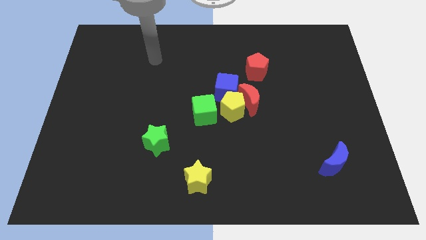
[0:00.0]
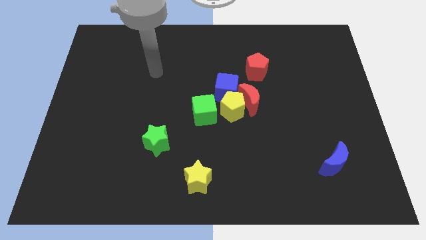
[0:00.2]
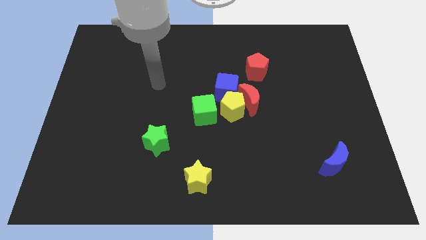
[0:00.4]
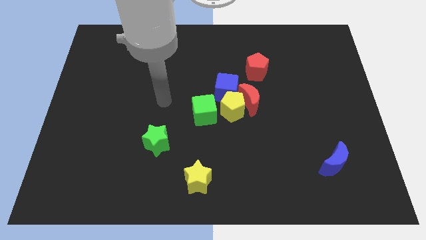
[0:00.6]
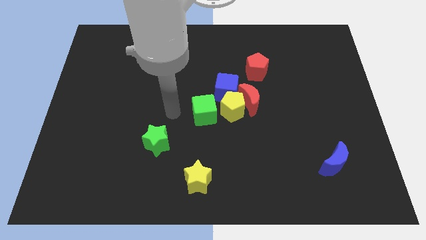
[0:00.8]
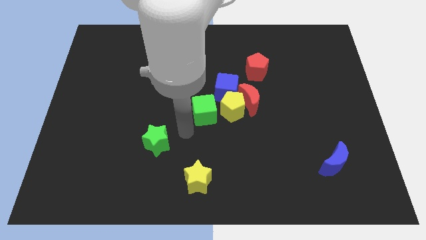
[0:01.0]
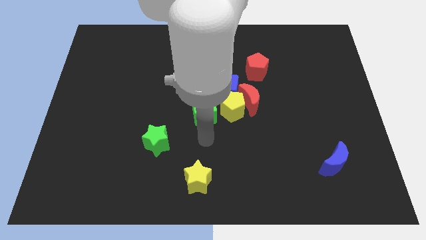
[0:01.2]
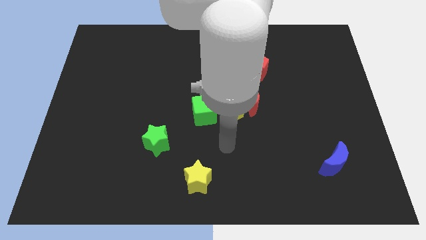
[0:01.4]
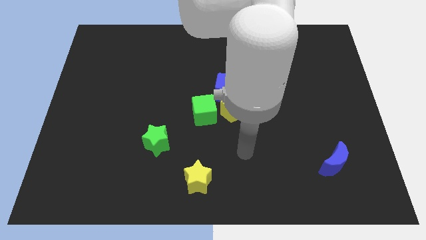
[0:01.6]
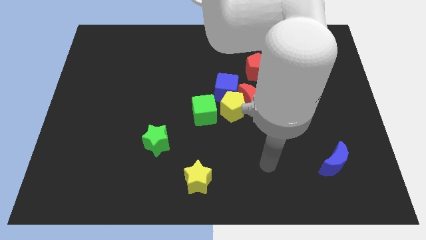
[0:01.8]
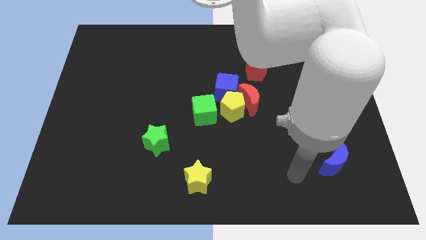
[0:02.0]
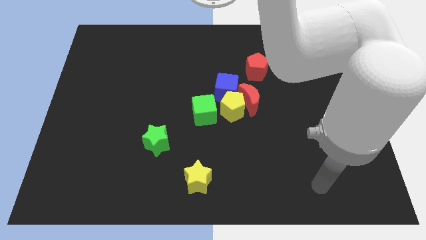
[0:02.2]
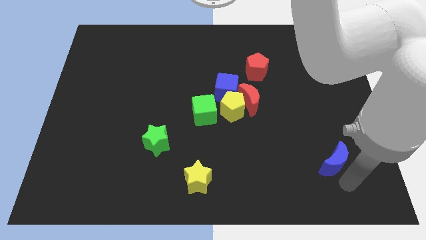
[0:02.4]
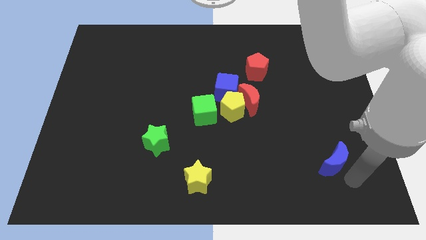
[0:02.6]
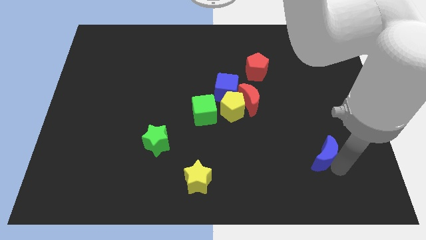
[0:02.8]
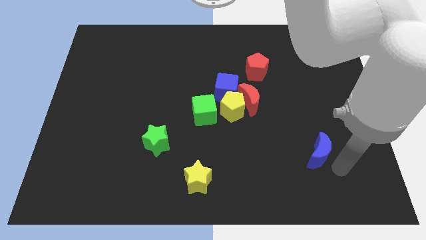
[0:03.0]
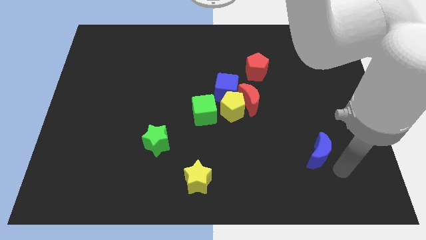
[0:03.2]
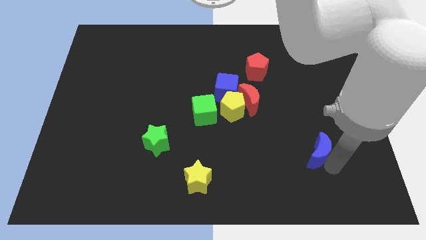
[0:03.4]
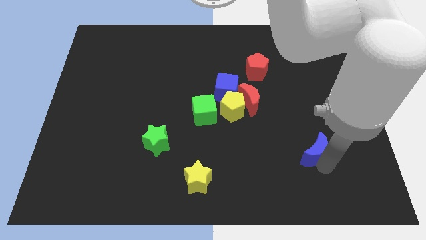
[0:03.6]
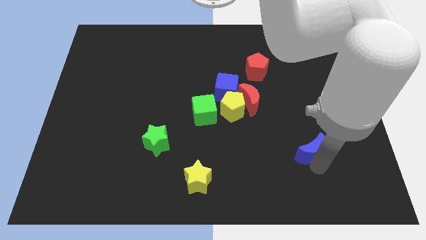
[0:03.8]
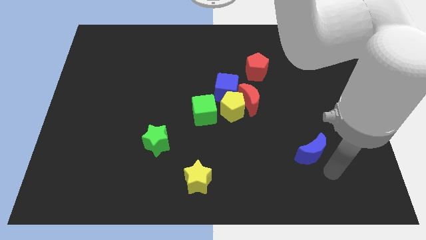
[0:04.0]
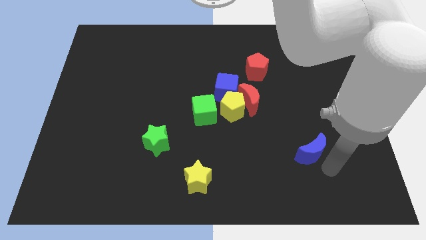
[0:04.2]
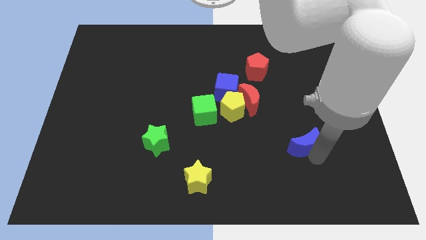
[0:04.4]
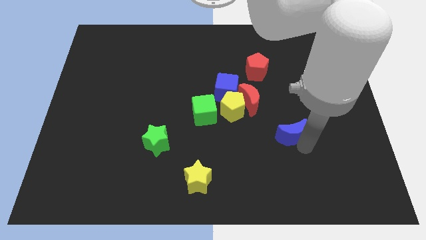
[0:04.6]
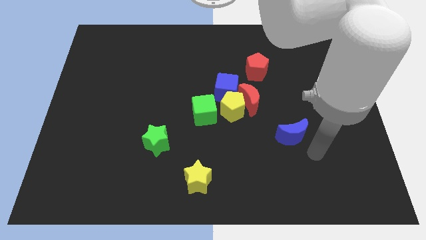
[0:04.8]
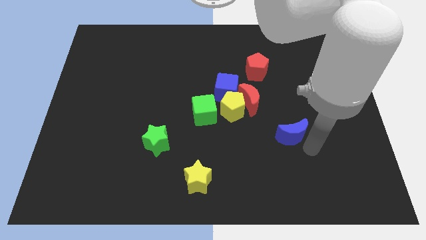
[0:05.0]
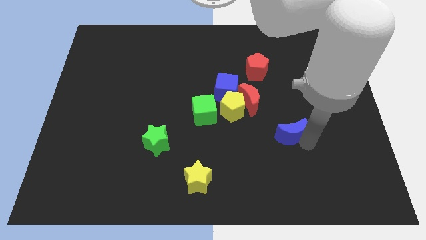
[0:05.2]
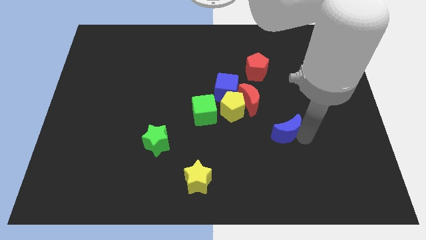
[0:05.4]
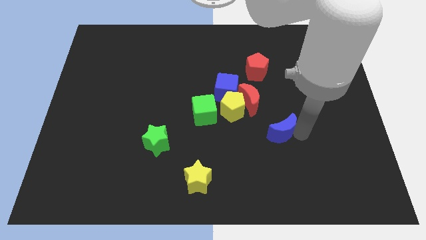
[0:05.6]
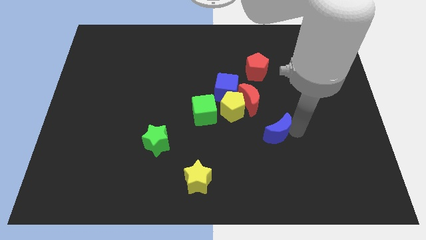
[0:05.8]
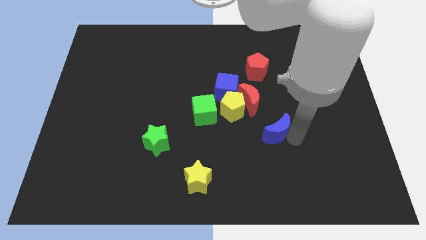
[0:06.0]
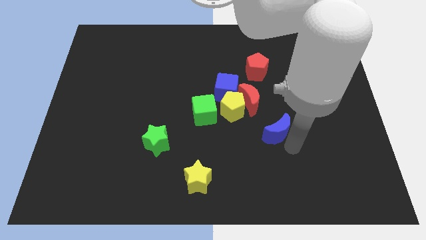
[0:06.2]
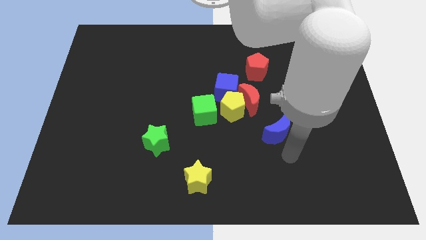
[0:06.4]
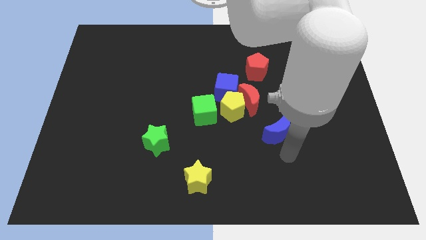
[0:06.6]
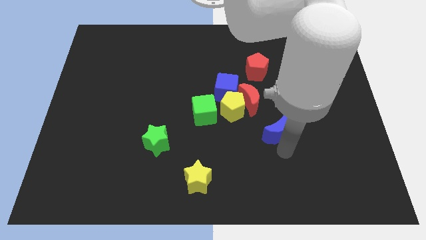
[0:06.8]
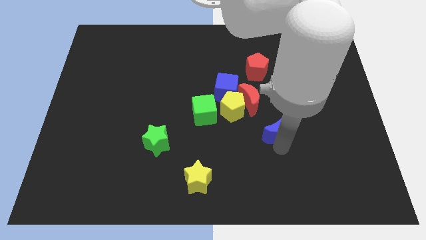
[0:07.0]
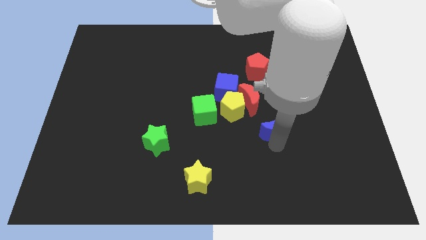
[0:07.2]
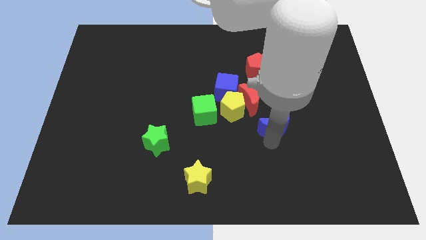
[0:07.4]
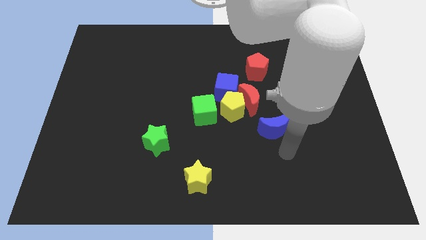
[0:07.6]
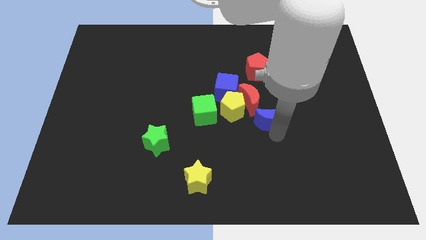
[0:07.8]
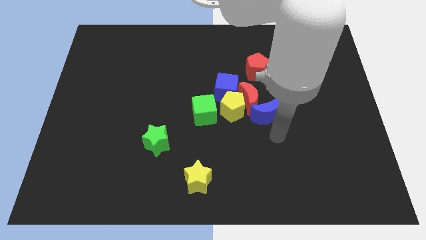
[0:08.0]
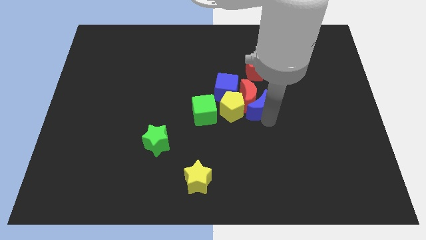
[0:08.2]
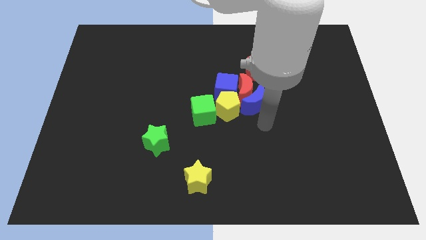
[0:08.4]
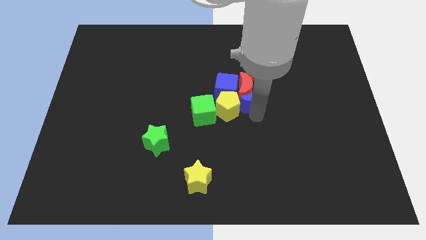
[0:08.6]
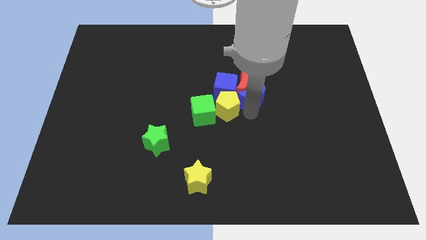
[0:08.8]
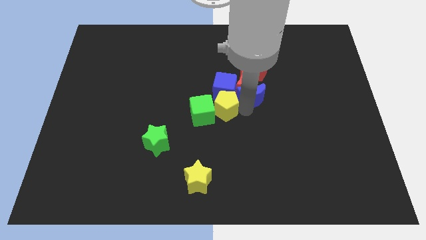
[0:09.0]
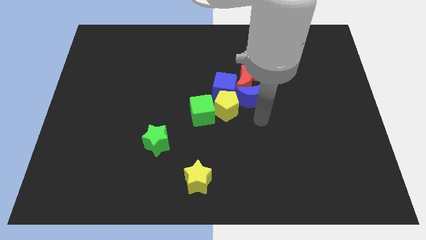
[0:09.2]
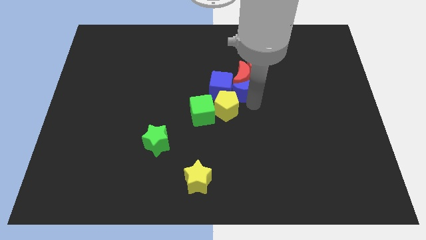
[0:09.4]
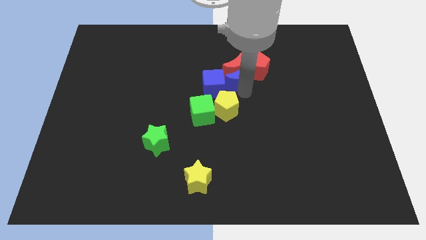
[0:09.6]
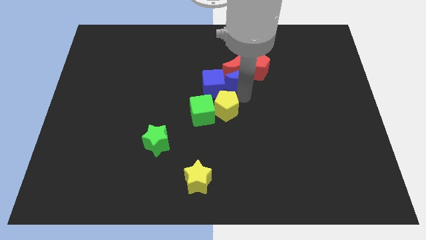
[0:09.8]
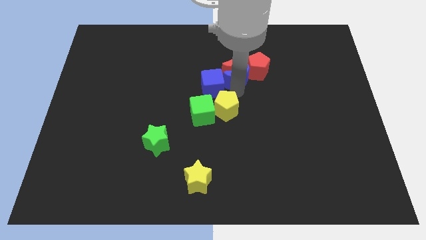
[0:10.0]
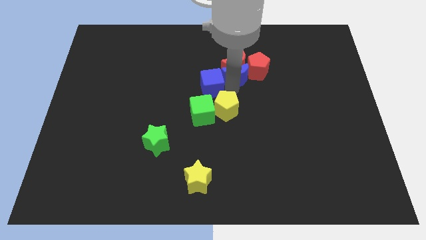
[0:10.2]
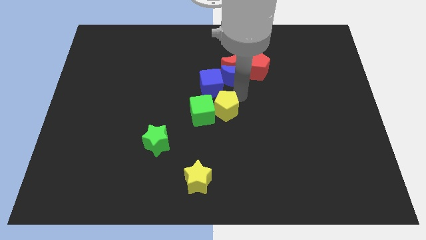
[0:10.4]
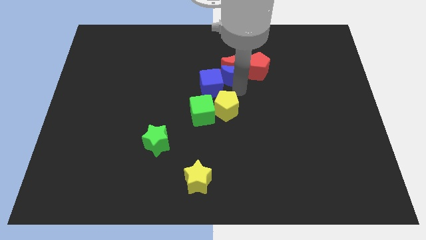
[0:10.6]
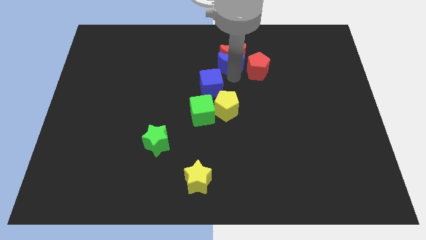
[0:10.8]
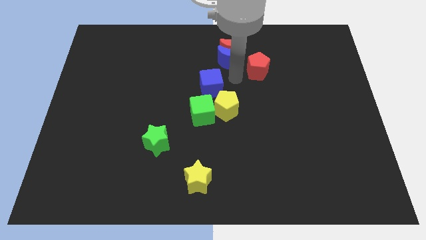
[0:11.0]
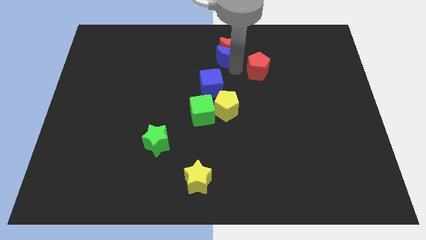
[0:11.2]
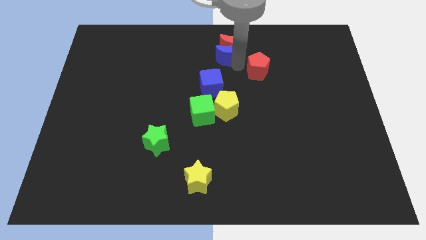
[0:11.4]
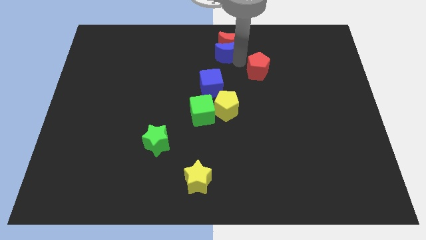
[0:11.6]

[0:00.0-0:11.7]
move the blue moon to the towards your base

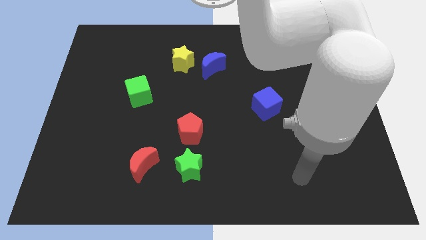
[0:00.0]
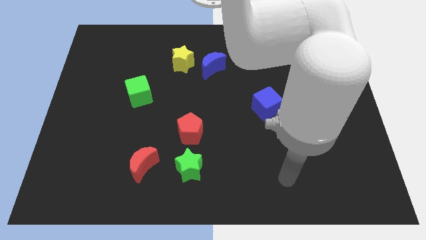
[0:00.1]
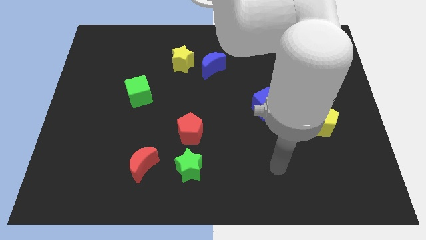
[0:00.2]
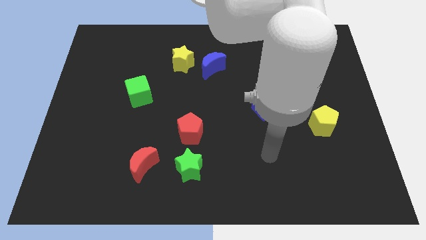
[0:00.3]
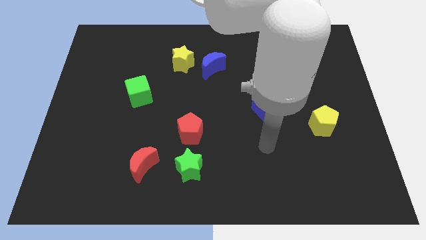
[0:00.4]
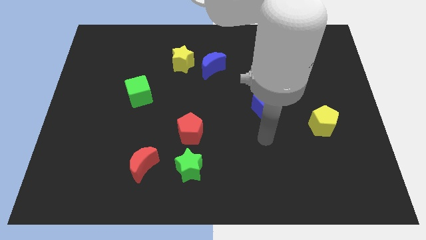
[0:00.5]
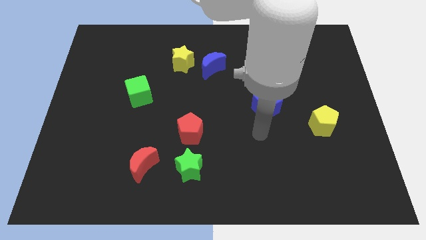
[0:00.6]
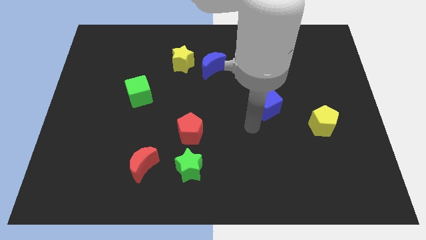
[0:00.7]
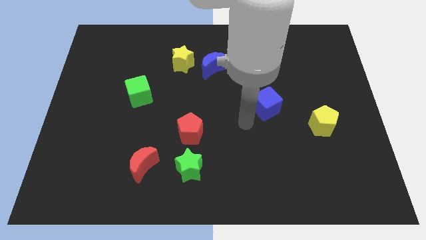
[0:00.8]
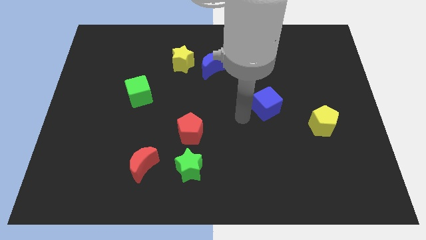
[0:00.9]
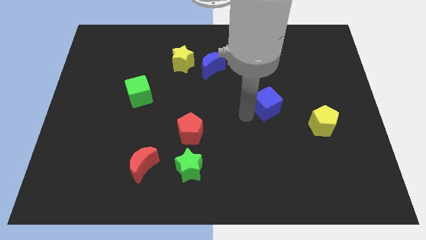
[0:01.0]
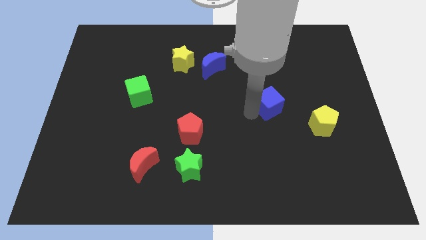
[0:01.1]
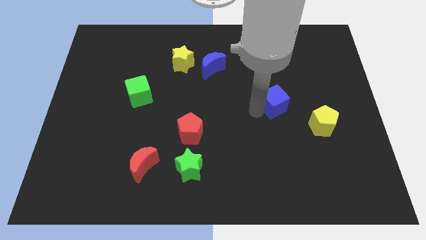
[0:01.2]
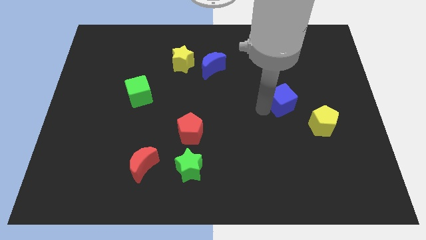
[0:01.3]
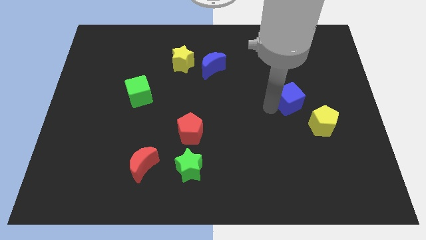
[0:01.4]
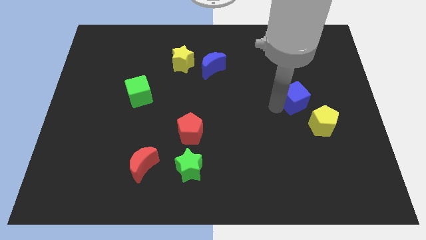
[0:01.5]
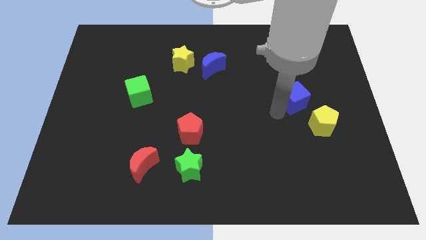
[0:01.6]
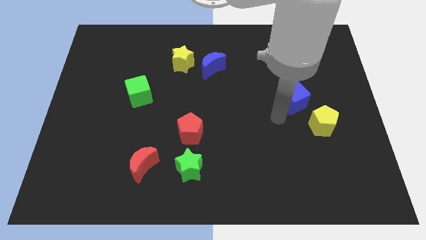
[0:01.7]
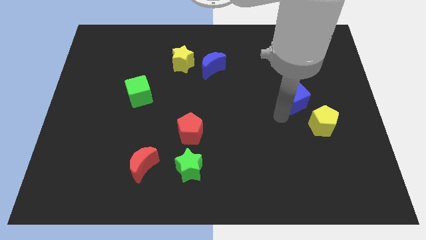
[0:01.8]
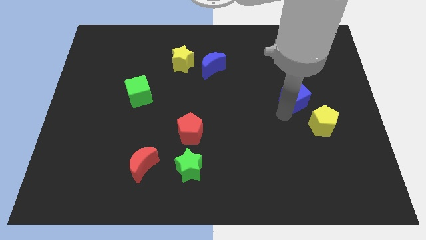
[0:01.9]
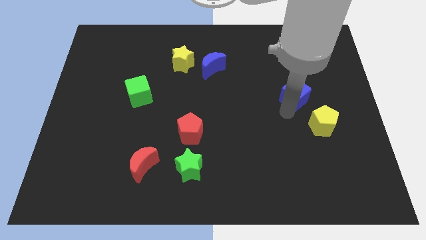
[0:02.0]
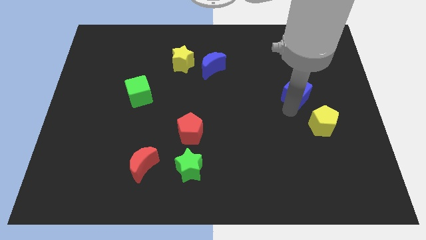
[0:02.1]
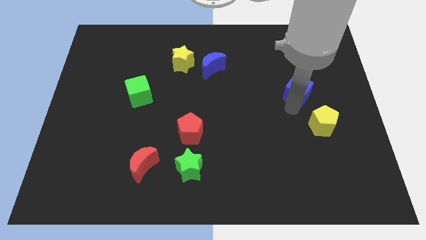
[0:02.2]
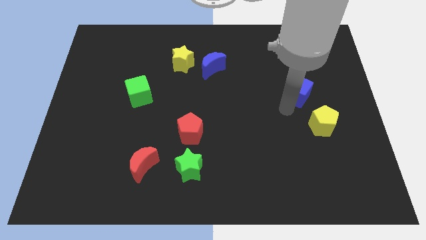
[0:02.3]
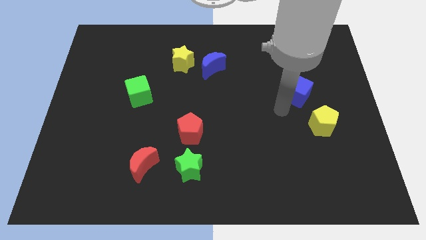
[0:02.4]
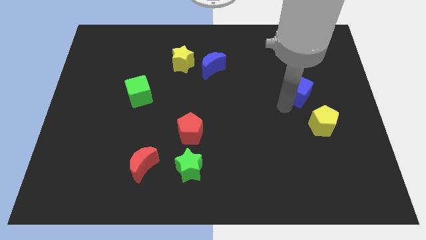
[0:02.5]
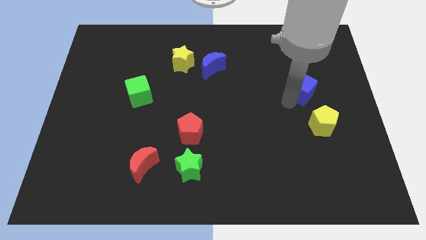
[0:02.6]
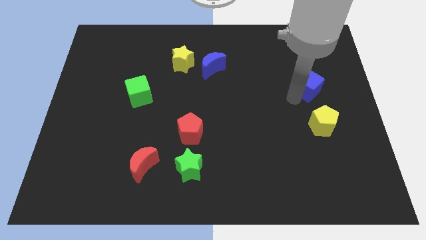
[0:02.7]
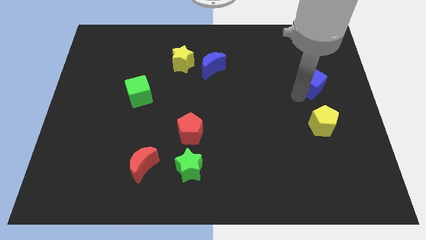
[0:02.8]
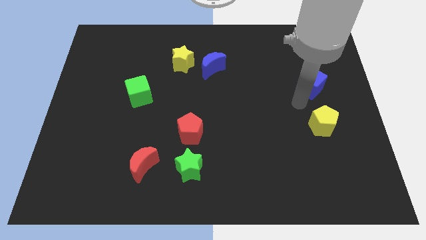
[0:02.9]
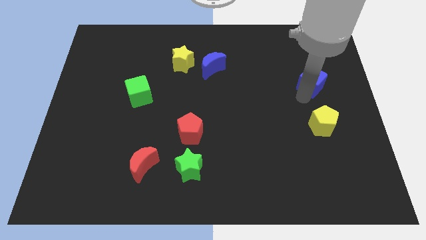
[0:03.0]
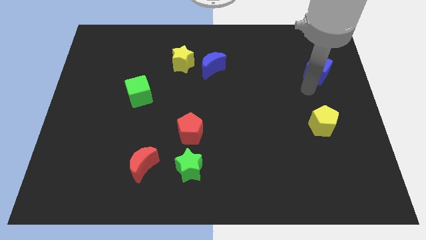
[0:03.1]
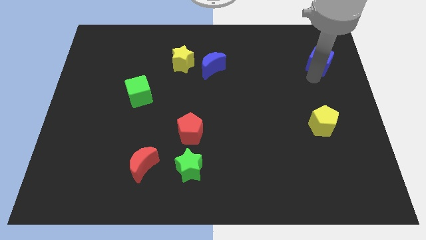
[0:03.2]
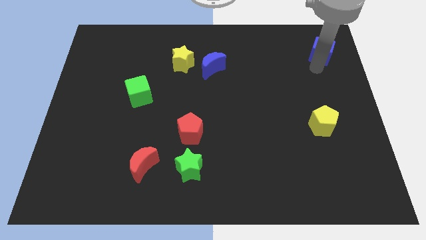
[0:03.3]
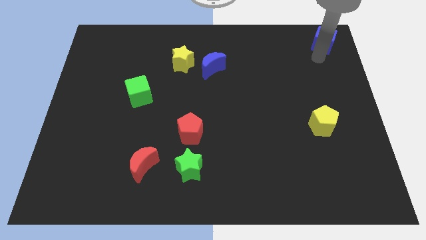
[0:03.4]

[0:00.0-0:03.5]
push the blue cube to the upper right corner
